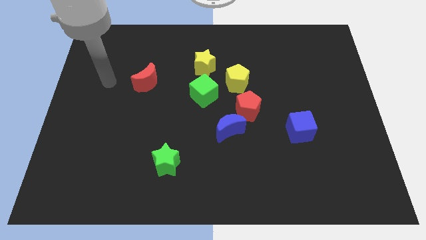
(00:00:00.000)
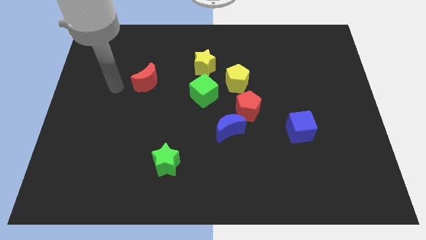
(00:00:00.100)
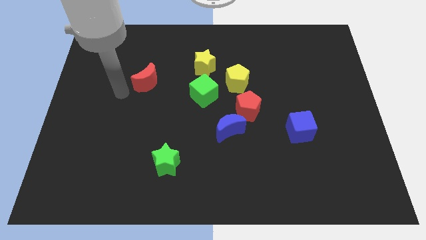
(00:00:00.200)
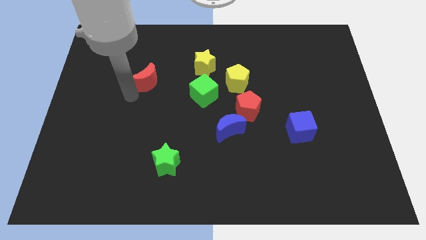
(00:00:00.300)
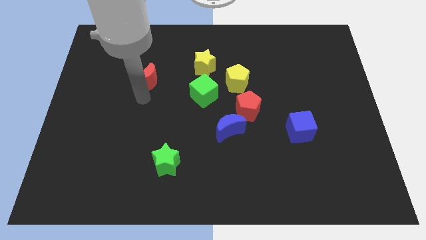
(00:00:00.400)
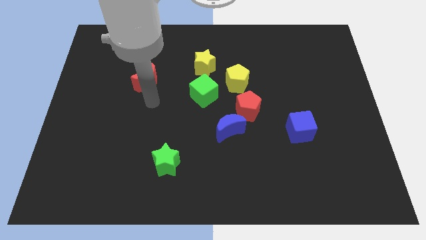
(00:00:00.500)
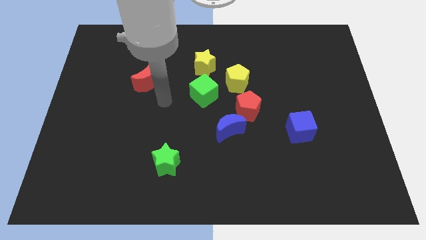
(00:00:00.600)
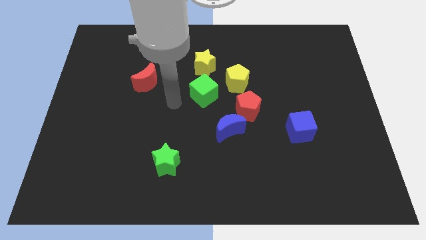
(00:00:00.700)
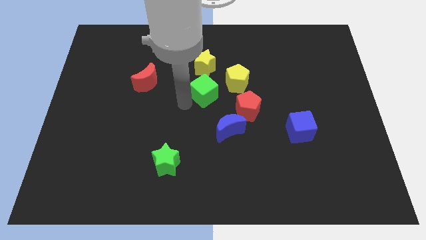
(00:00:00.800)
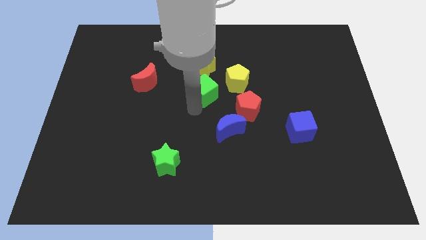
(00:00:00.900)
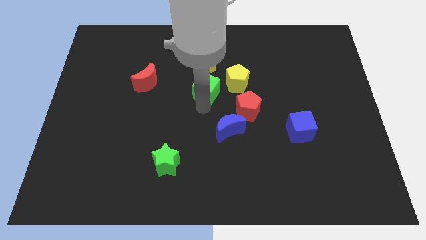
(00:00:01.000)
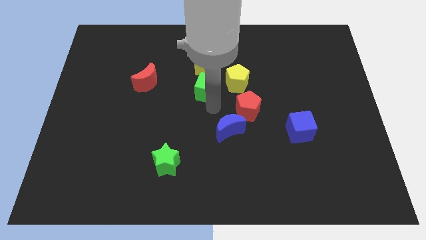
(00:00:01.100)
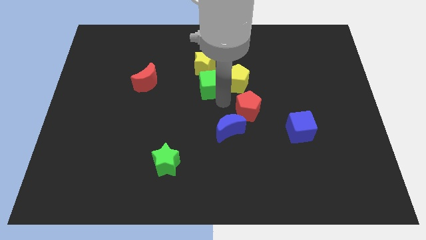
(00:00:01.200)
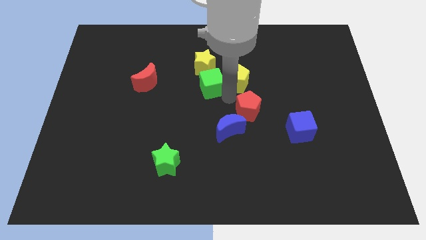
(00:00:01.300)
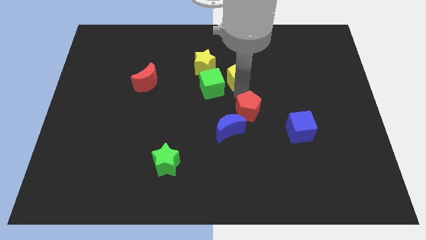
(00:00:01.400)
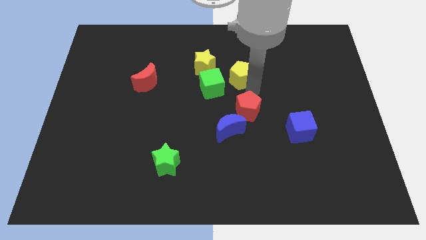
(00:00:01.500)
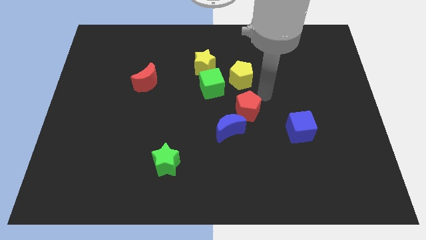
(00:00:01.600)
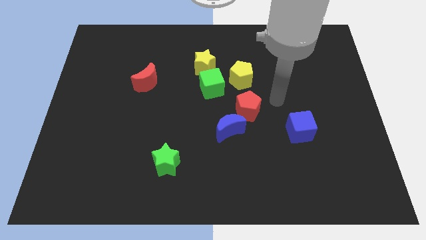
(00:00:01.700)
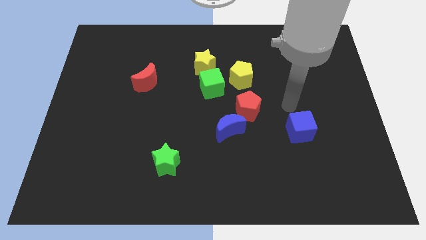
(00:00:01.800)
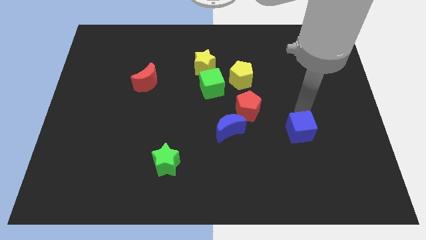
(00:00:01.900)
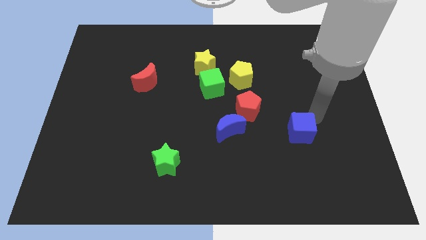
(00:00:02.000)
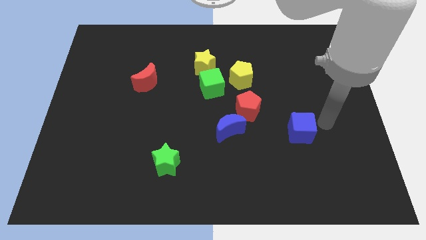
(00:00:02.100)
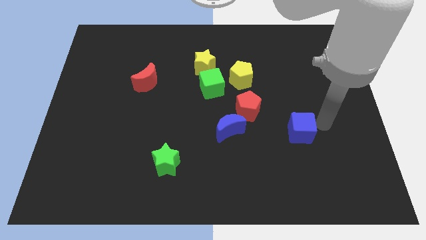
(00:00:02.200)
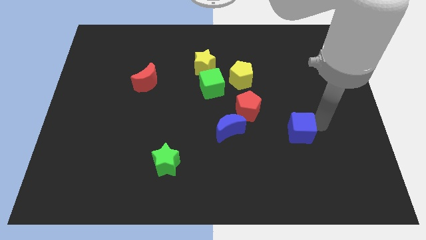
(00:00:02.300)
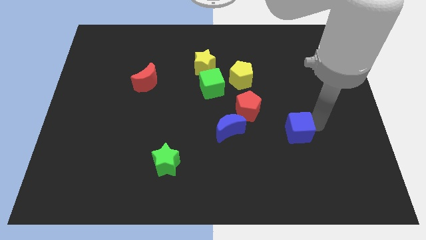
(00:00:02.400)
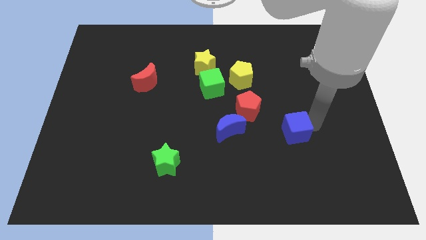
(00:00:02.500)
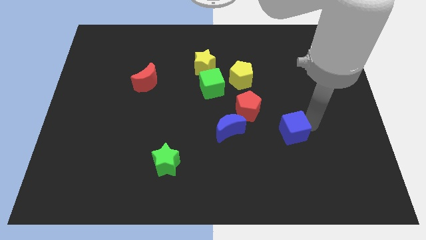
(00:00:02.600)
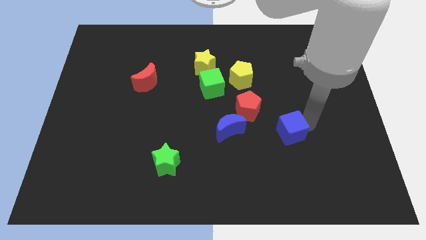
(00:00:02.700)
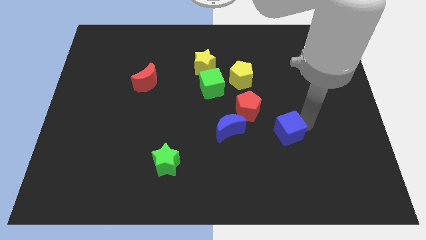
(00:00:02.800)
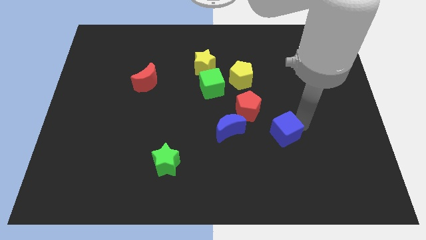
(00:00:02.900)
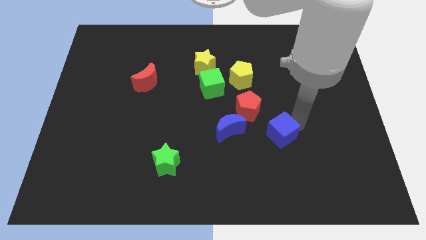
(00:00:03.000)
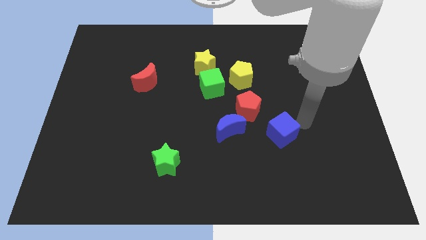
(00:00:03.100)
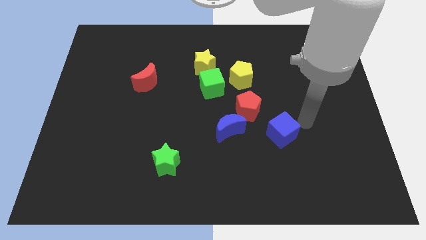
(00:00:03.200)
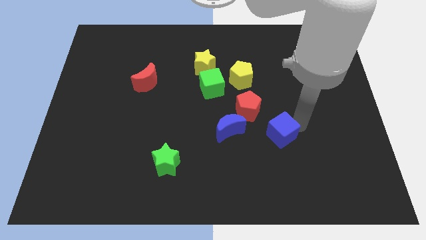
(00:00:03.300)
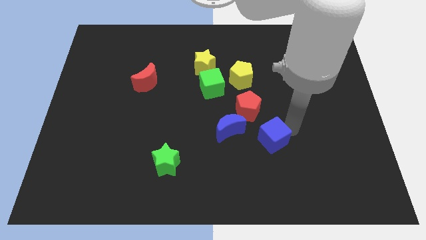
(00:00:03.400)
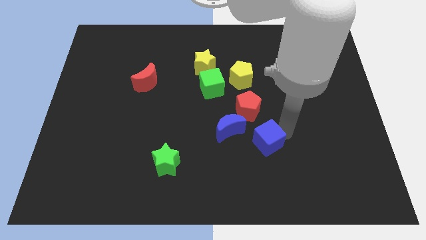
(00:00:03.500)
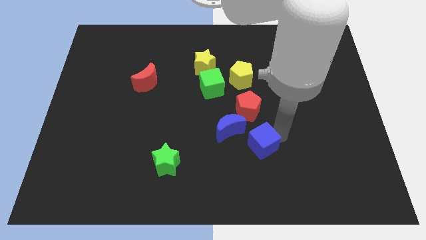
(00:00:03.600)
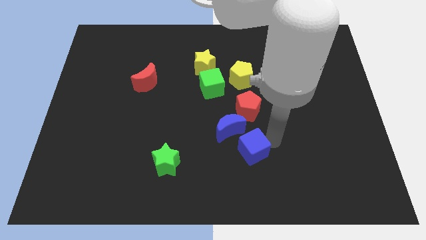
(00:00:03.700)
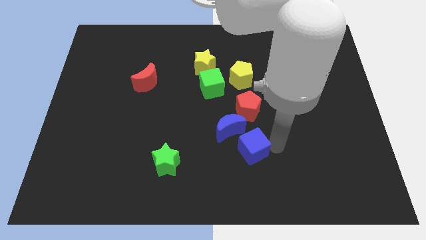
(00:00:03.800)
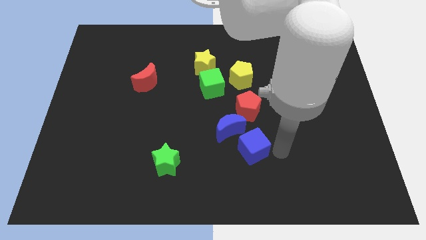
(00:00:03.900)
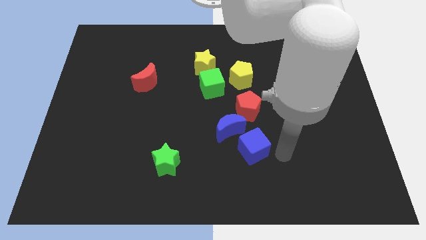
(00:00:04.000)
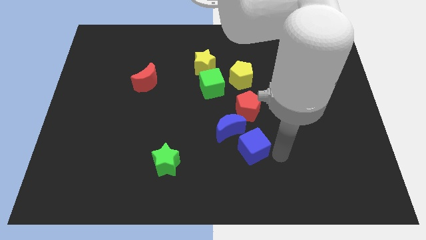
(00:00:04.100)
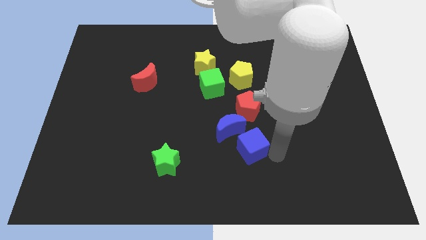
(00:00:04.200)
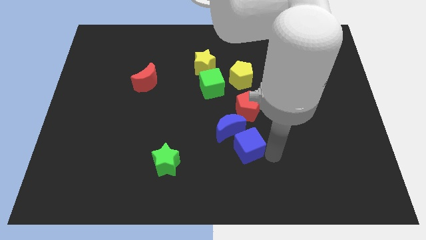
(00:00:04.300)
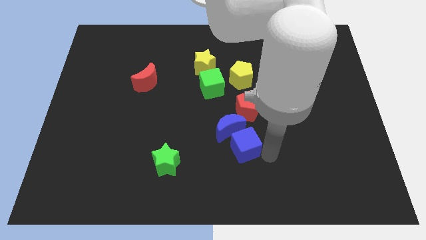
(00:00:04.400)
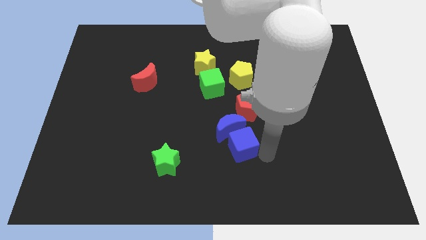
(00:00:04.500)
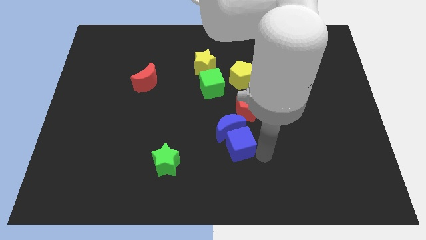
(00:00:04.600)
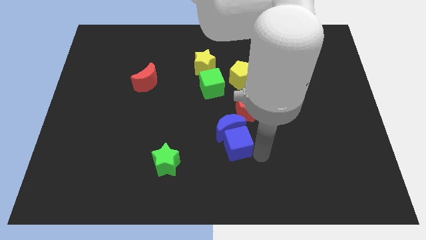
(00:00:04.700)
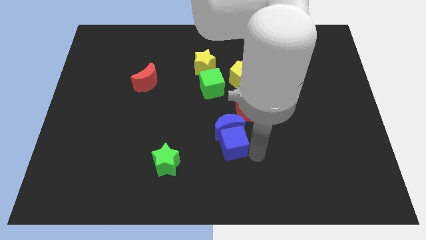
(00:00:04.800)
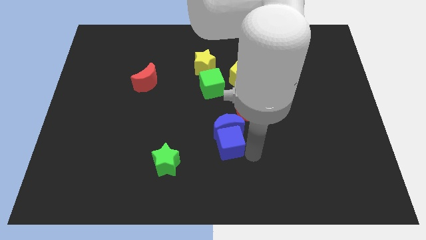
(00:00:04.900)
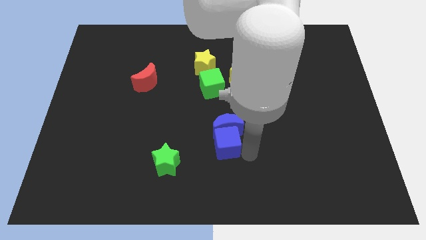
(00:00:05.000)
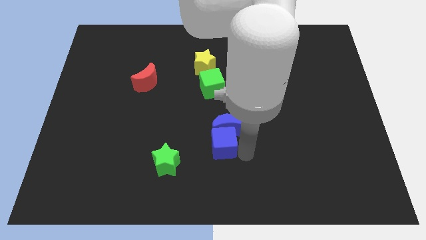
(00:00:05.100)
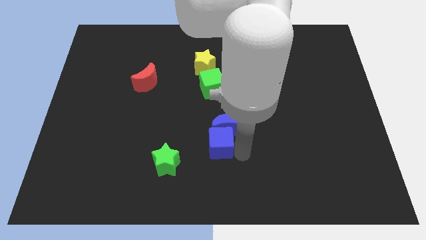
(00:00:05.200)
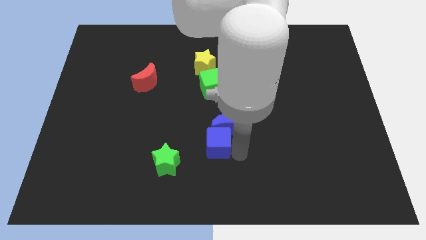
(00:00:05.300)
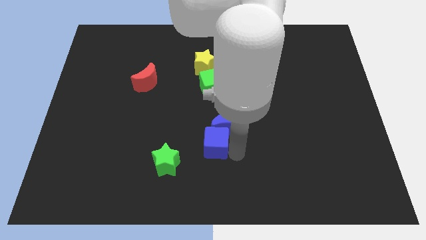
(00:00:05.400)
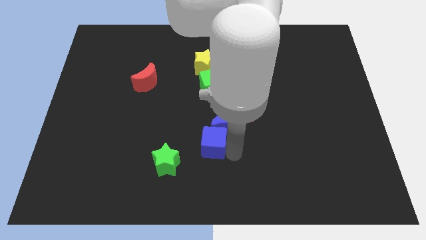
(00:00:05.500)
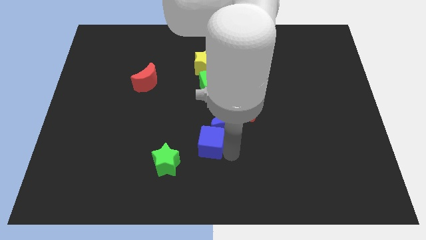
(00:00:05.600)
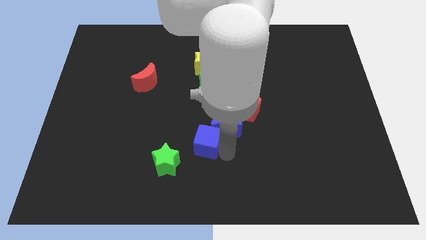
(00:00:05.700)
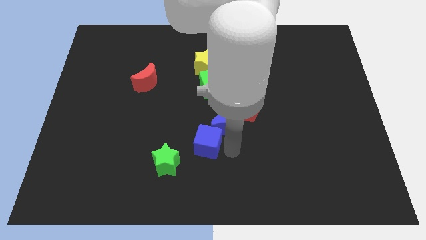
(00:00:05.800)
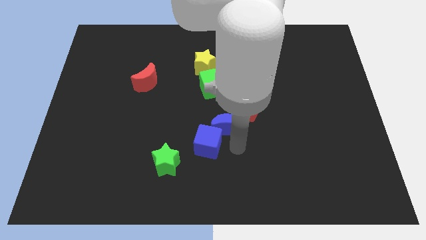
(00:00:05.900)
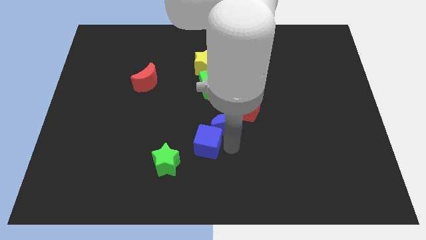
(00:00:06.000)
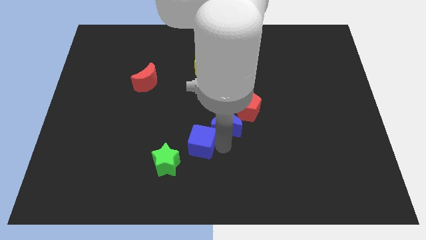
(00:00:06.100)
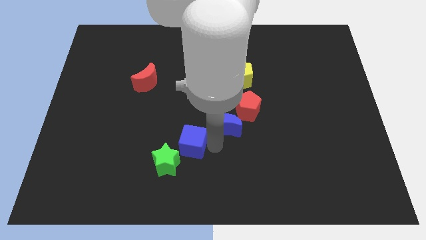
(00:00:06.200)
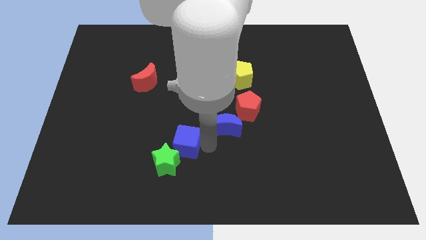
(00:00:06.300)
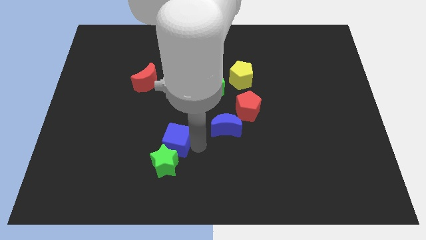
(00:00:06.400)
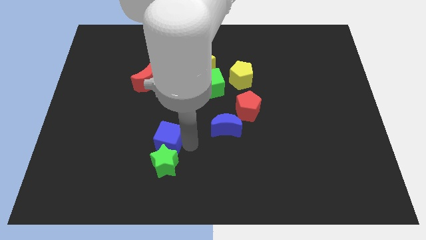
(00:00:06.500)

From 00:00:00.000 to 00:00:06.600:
slide the blue cube diagonally up and to the left of the green star
